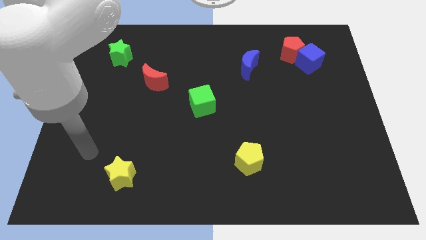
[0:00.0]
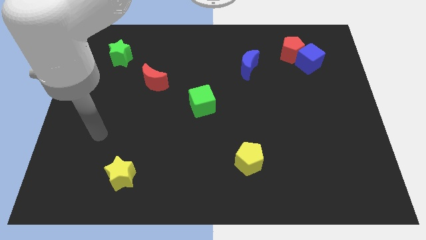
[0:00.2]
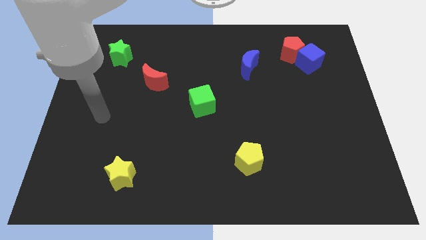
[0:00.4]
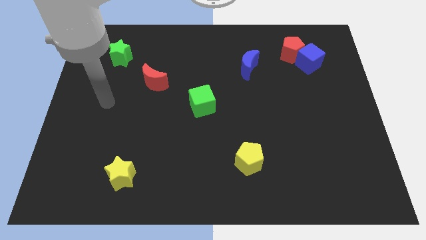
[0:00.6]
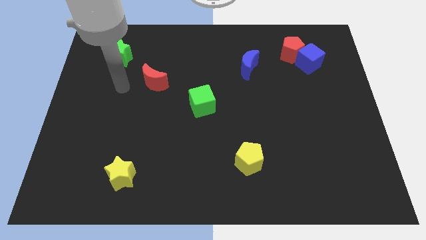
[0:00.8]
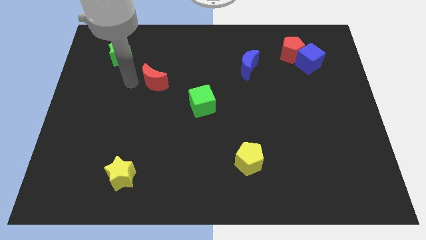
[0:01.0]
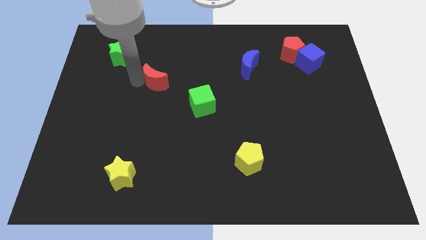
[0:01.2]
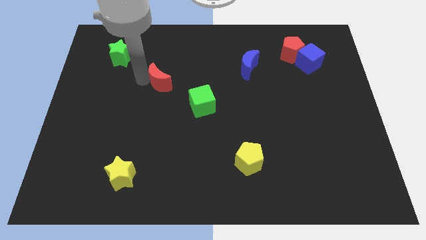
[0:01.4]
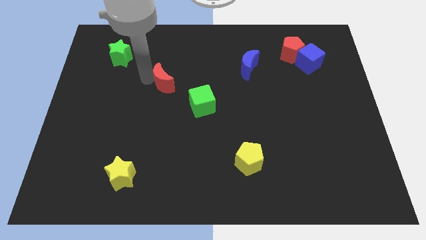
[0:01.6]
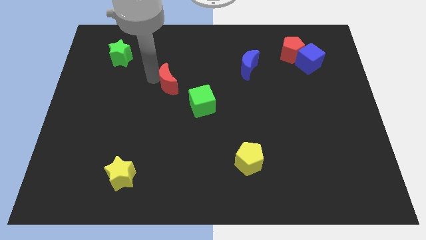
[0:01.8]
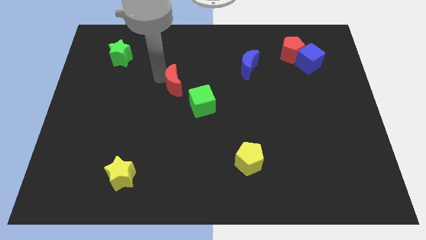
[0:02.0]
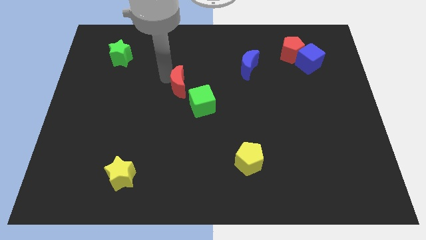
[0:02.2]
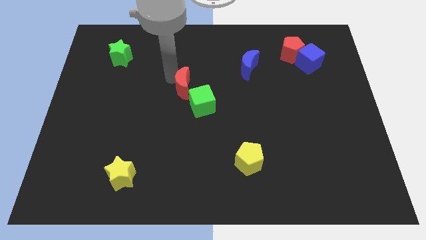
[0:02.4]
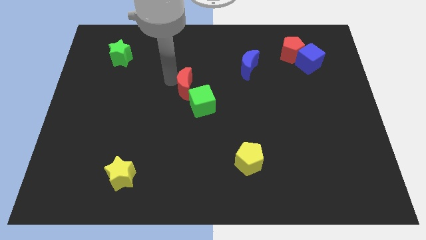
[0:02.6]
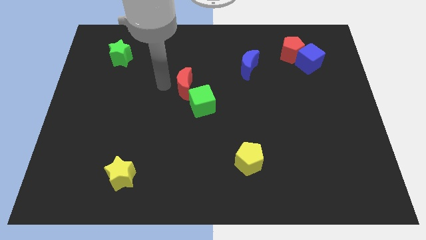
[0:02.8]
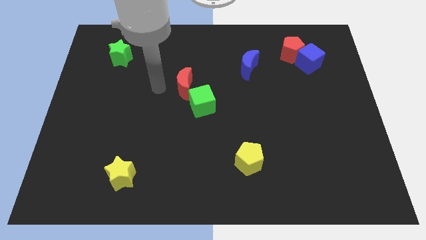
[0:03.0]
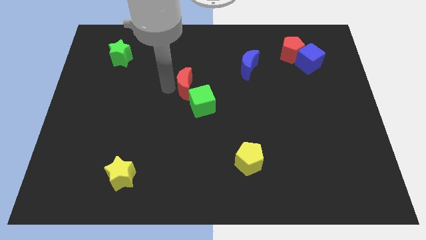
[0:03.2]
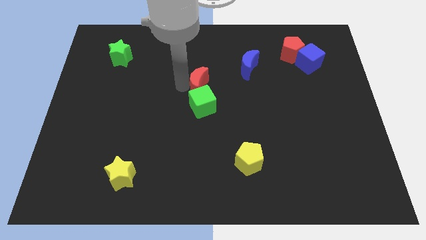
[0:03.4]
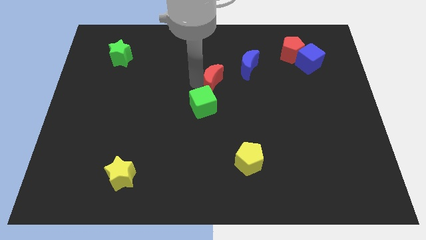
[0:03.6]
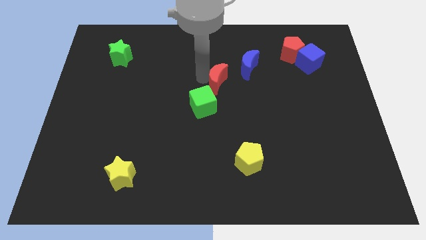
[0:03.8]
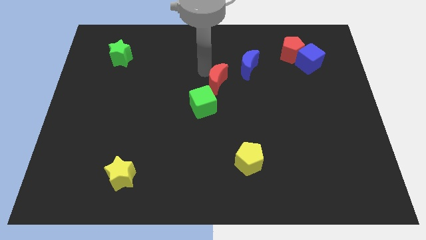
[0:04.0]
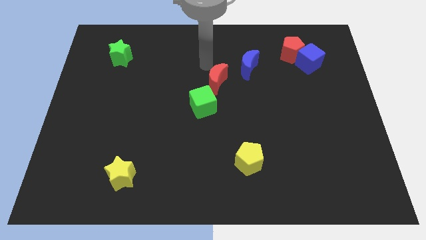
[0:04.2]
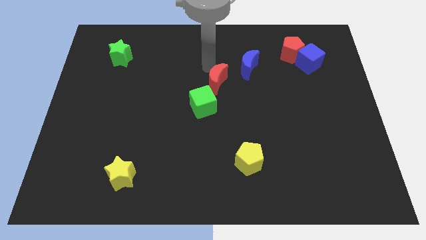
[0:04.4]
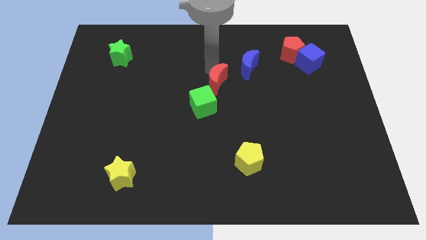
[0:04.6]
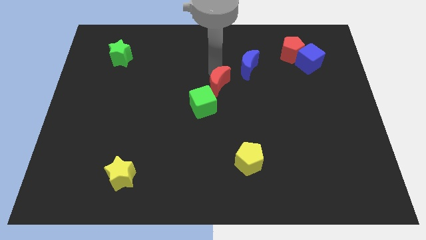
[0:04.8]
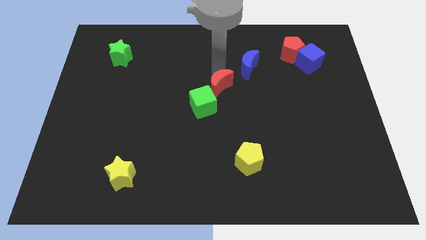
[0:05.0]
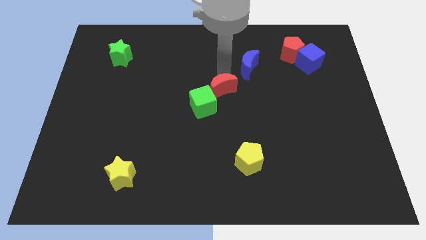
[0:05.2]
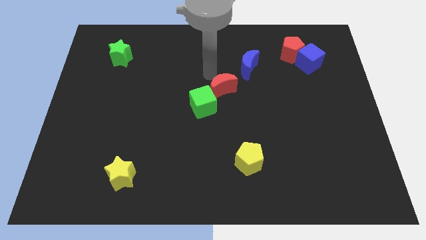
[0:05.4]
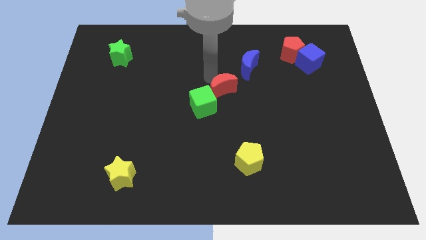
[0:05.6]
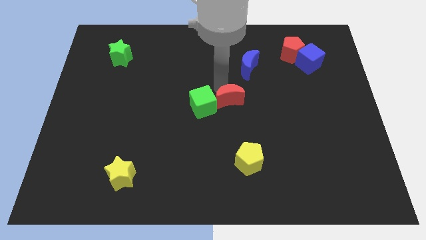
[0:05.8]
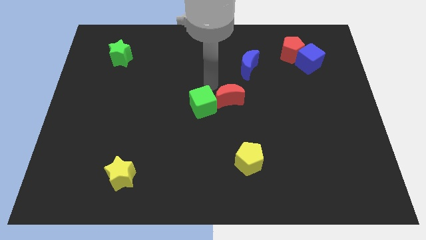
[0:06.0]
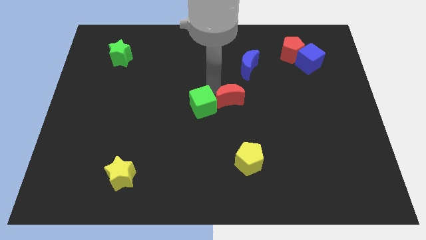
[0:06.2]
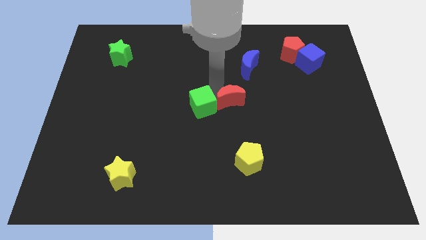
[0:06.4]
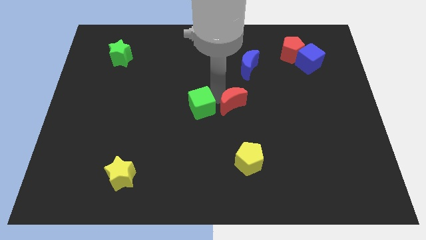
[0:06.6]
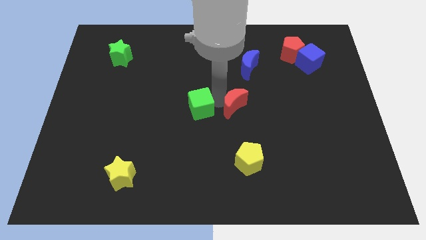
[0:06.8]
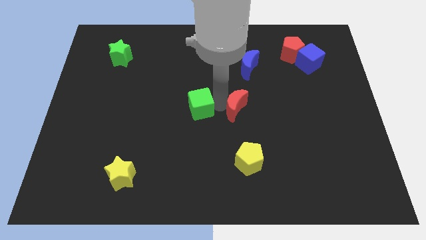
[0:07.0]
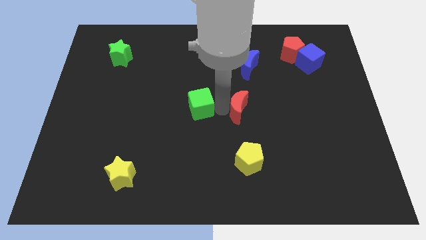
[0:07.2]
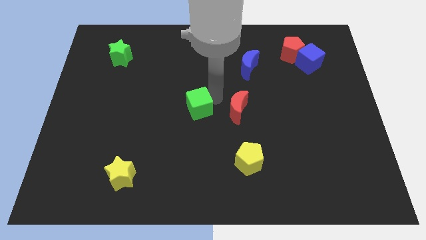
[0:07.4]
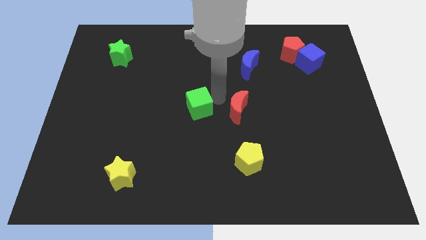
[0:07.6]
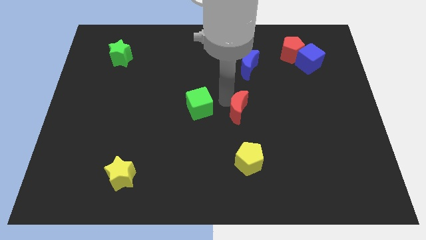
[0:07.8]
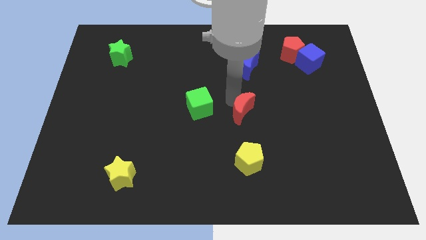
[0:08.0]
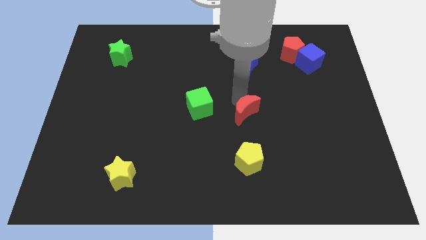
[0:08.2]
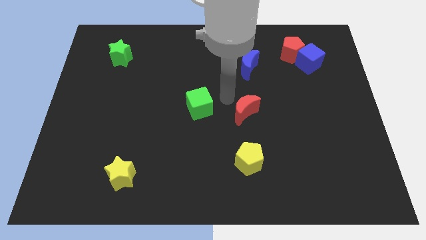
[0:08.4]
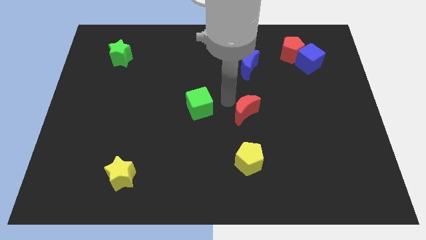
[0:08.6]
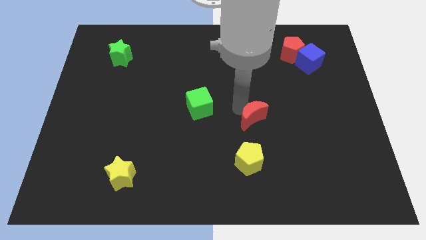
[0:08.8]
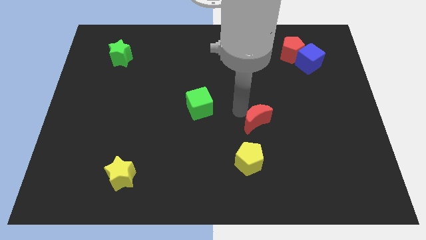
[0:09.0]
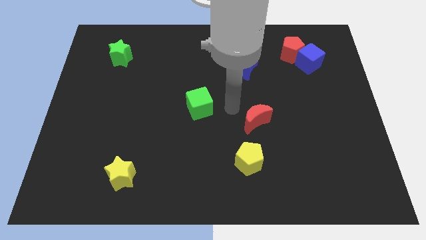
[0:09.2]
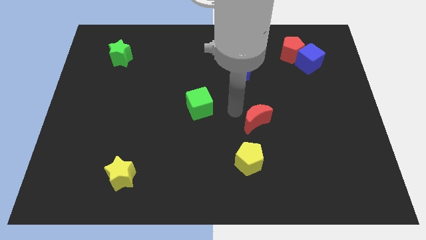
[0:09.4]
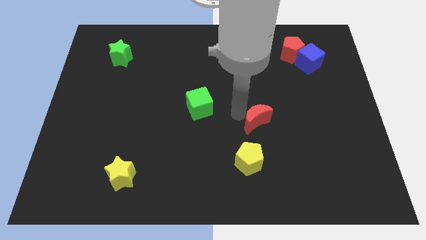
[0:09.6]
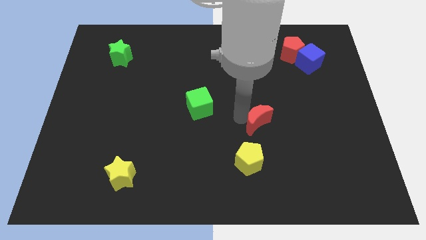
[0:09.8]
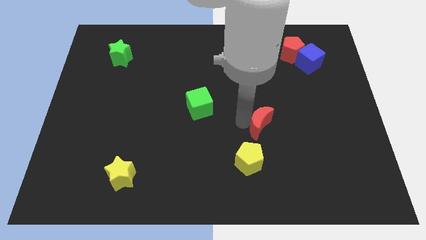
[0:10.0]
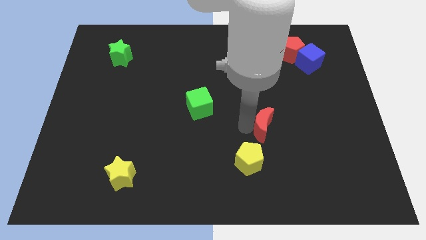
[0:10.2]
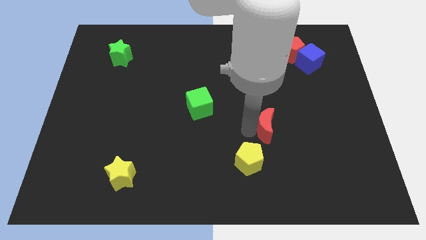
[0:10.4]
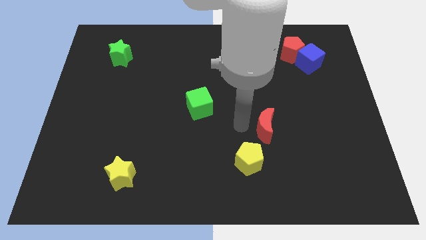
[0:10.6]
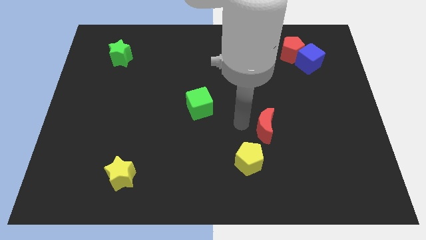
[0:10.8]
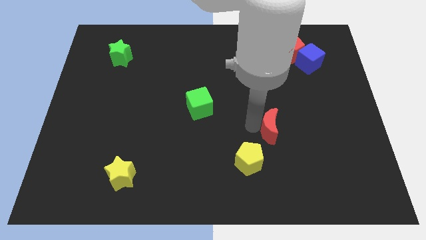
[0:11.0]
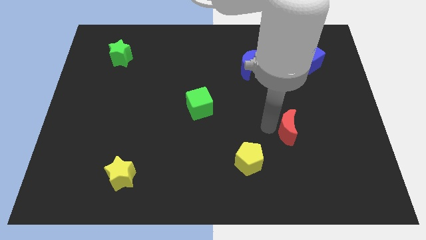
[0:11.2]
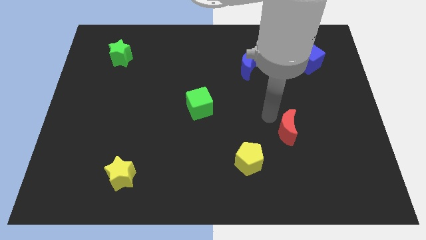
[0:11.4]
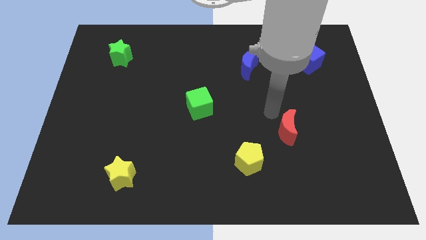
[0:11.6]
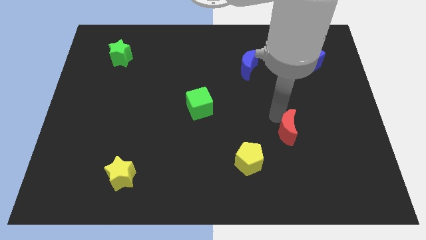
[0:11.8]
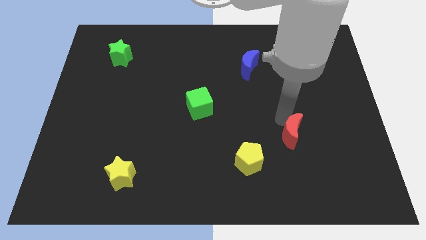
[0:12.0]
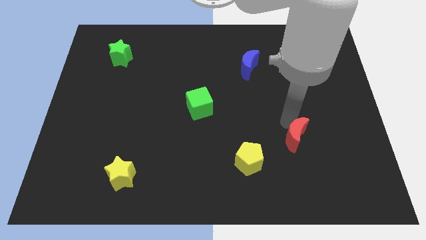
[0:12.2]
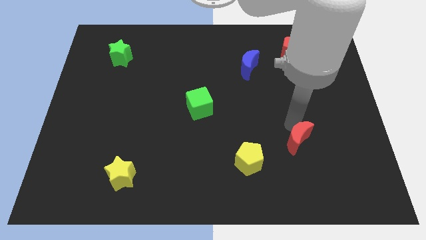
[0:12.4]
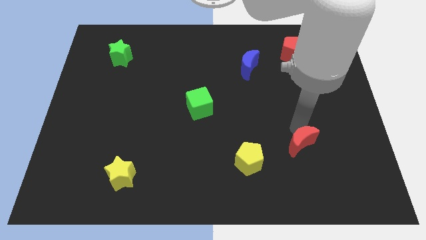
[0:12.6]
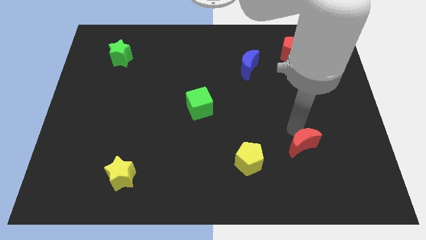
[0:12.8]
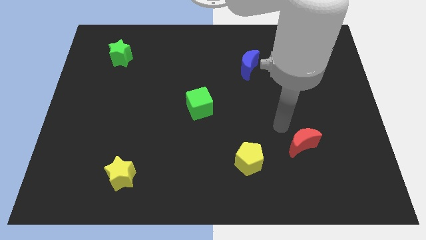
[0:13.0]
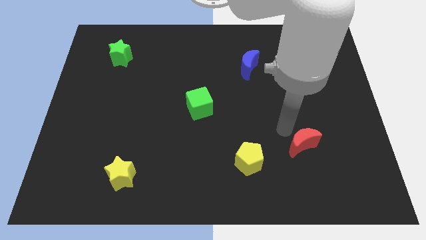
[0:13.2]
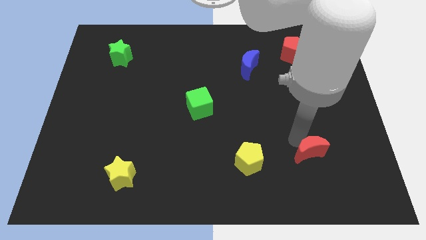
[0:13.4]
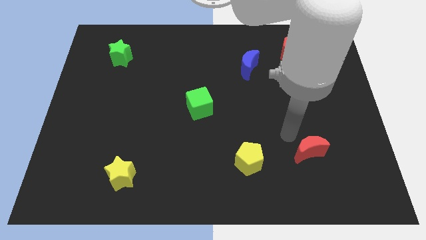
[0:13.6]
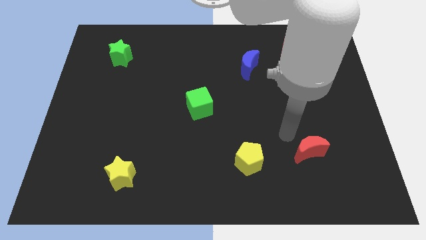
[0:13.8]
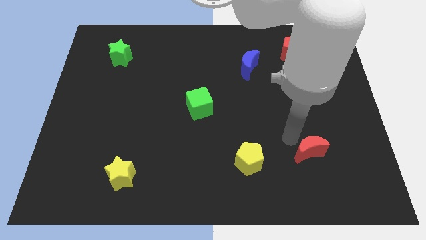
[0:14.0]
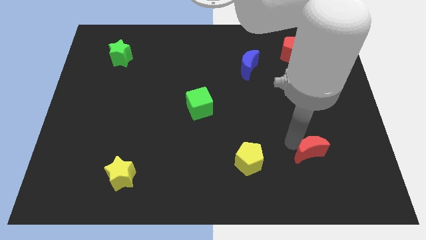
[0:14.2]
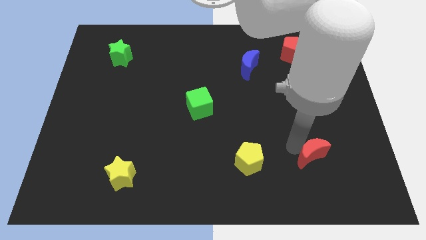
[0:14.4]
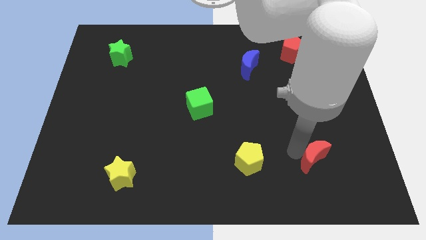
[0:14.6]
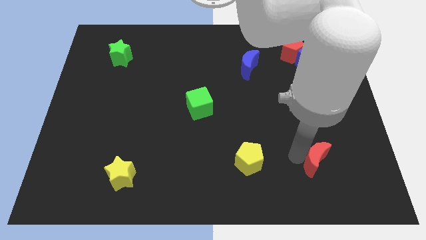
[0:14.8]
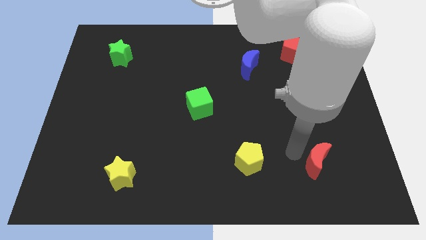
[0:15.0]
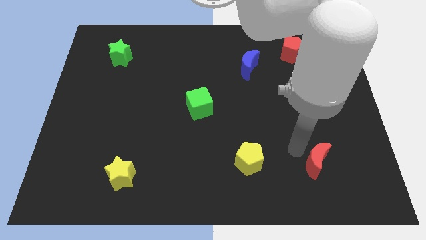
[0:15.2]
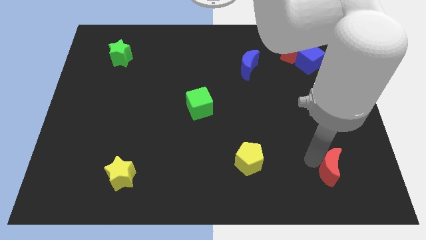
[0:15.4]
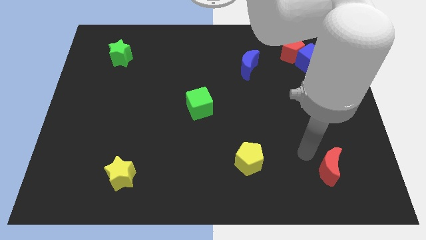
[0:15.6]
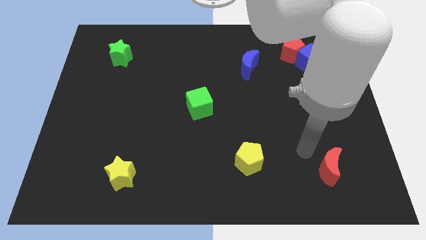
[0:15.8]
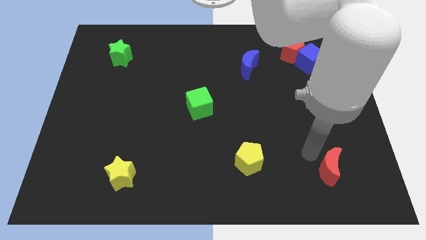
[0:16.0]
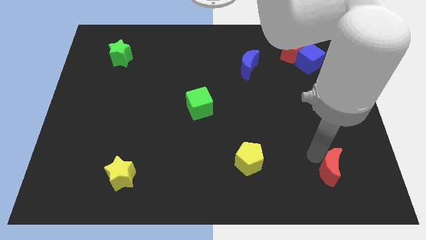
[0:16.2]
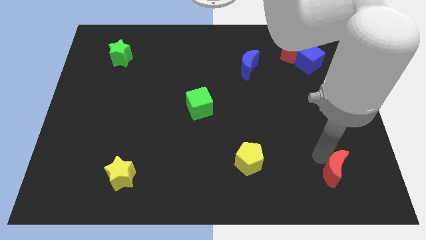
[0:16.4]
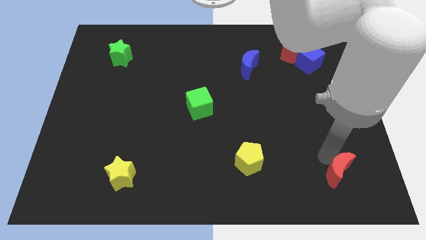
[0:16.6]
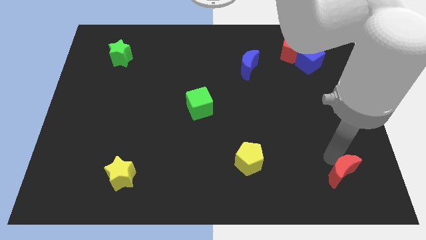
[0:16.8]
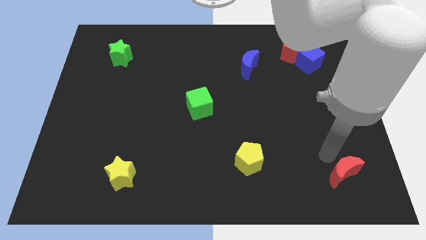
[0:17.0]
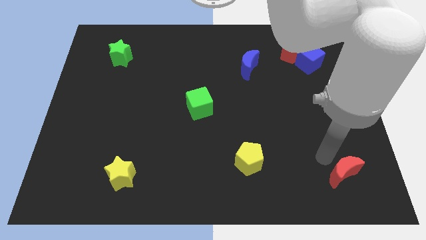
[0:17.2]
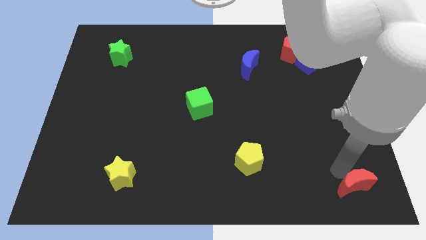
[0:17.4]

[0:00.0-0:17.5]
move the red moon to the bottom right of the board
